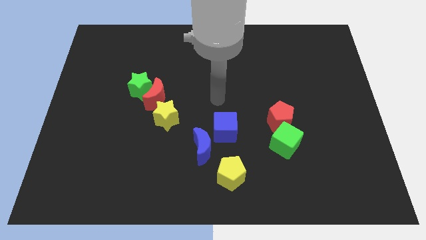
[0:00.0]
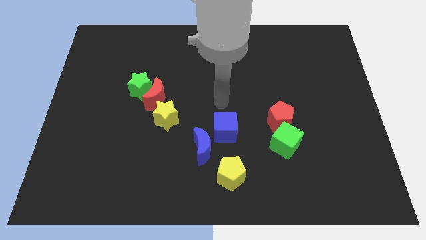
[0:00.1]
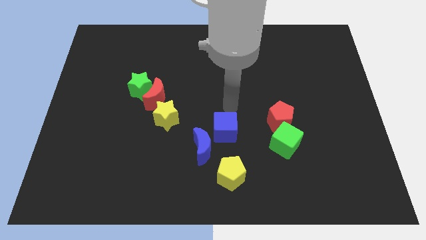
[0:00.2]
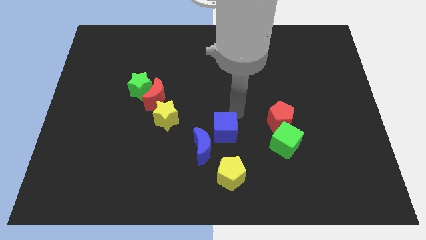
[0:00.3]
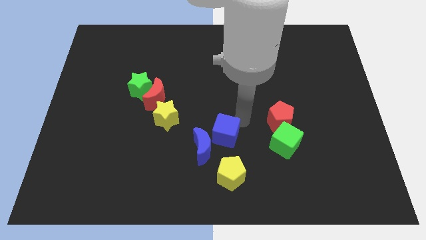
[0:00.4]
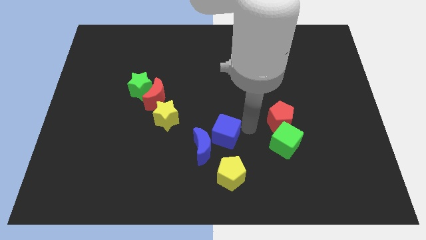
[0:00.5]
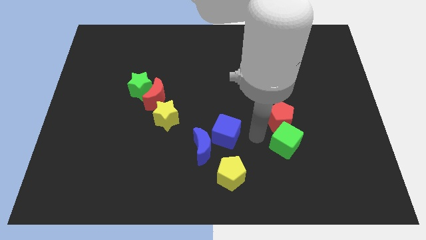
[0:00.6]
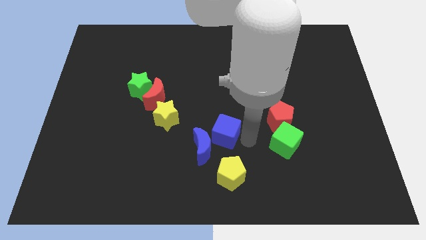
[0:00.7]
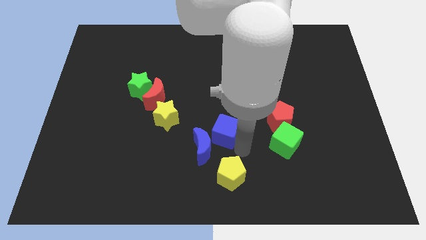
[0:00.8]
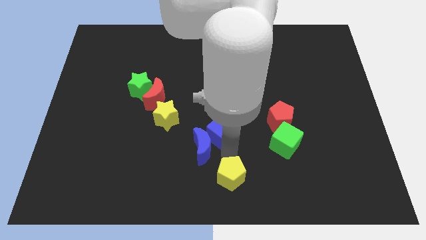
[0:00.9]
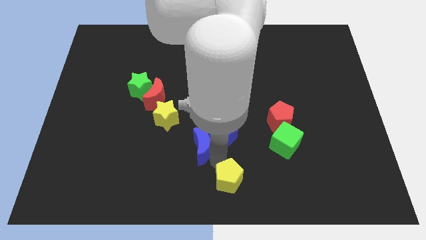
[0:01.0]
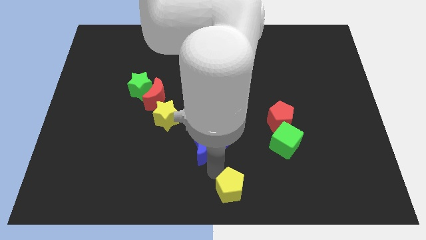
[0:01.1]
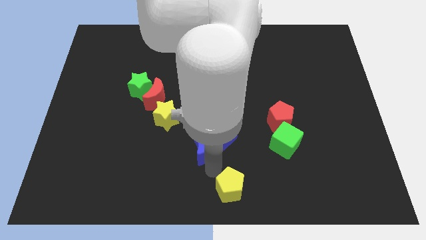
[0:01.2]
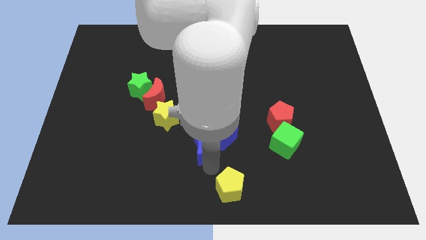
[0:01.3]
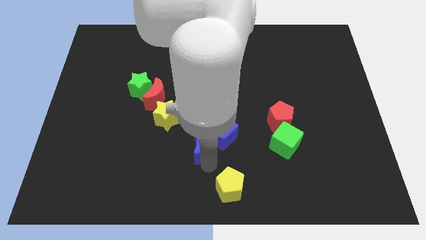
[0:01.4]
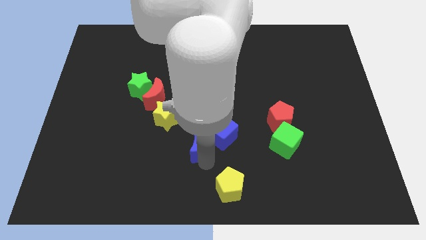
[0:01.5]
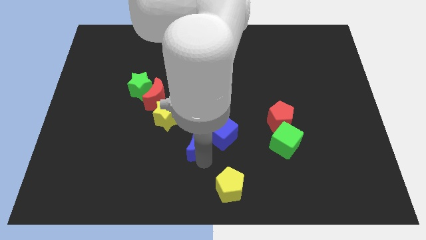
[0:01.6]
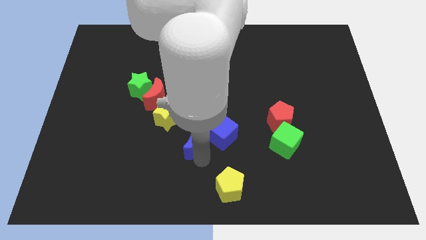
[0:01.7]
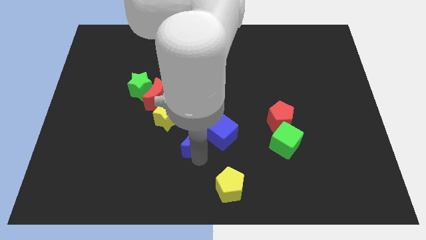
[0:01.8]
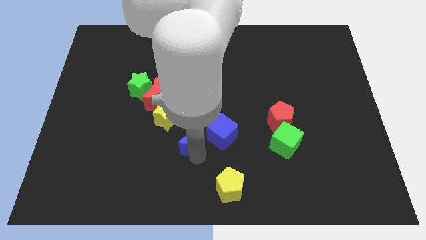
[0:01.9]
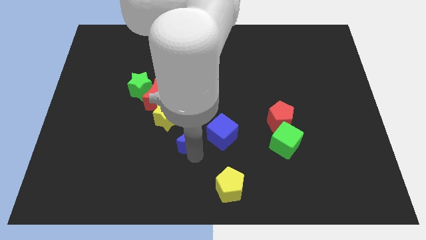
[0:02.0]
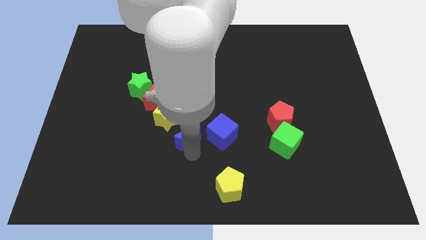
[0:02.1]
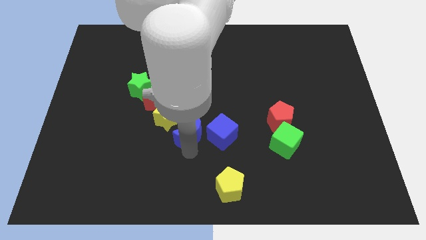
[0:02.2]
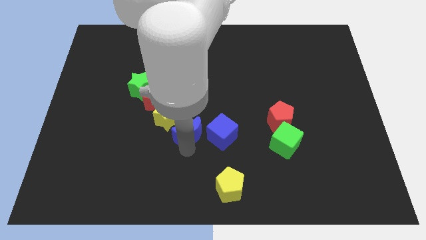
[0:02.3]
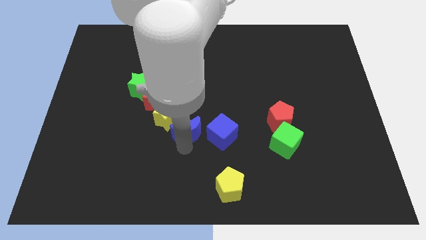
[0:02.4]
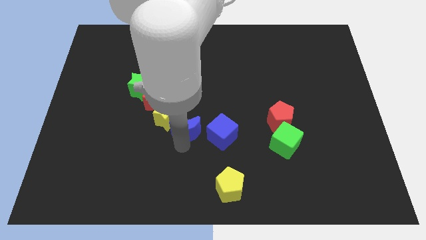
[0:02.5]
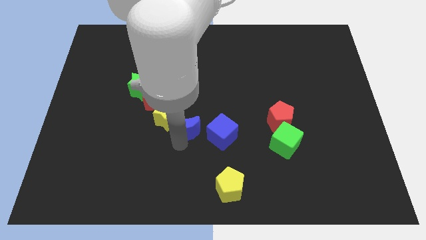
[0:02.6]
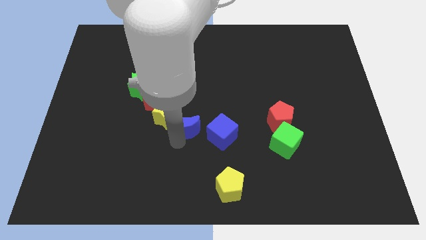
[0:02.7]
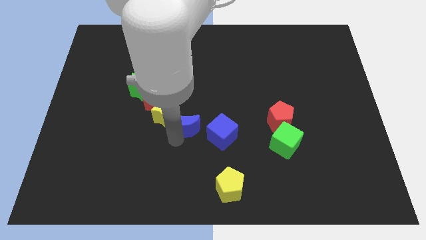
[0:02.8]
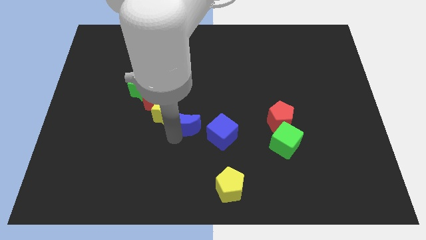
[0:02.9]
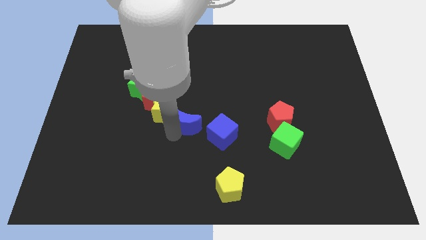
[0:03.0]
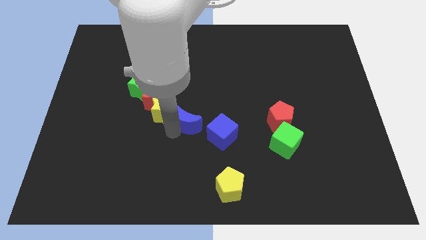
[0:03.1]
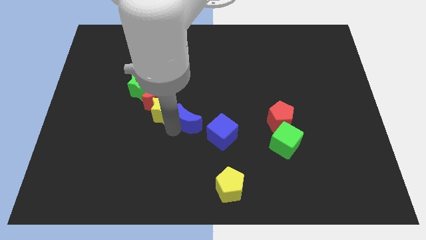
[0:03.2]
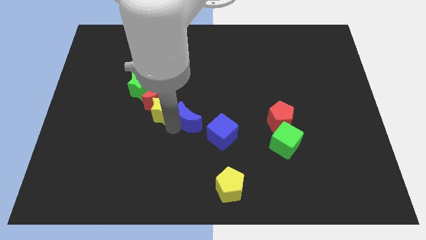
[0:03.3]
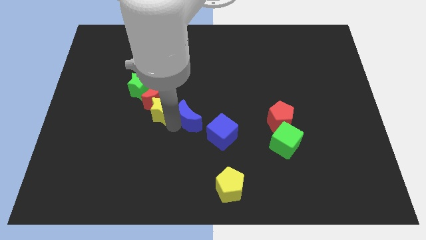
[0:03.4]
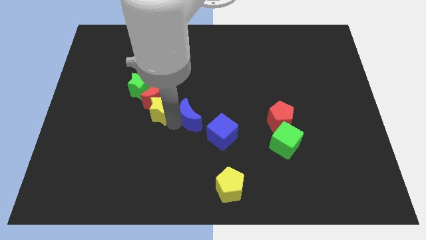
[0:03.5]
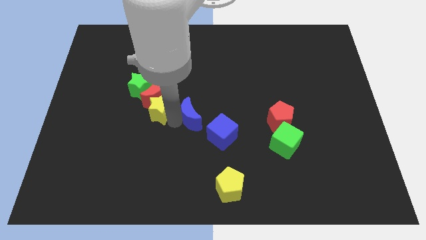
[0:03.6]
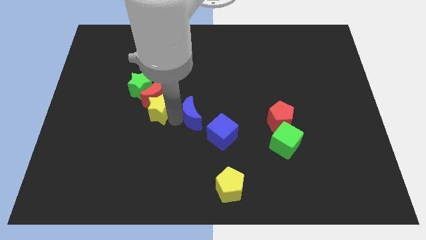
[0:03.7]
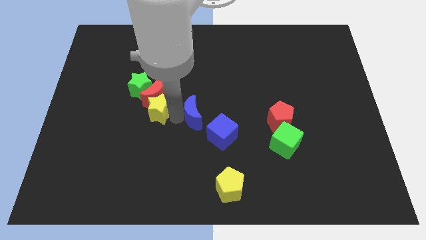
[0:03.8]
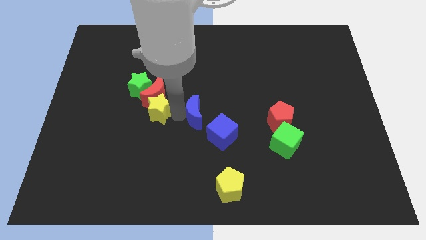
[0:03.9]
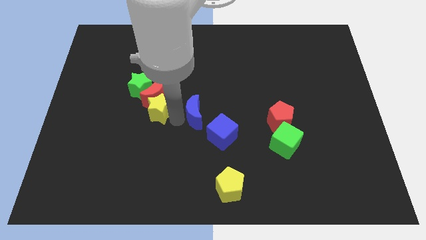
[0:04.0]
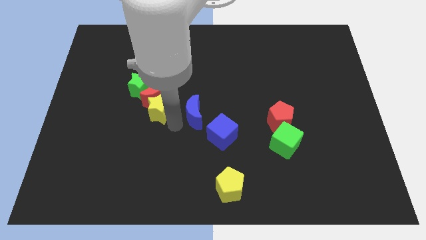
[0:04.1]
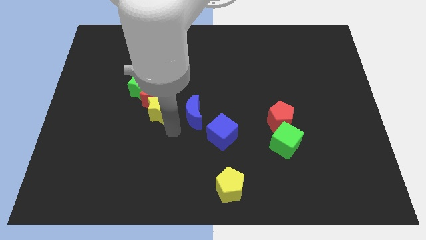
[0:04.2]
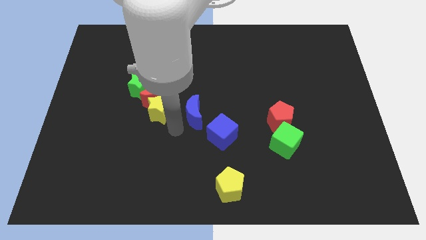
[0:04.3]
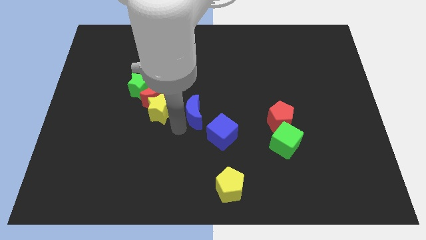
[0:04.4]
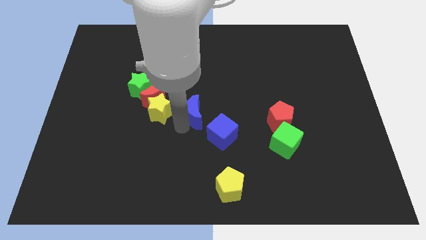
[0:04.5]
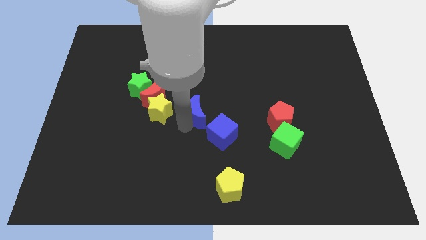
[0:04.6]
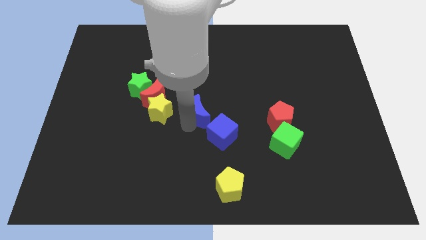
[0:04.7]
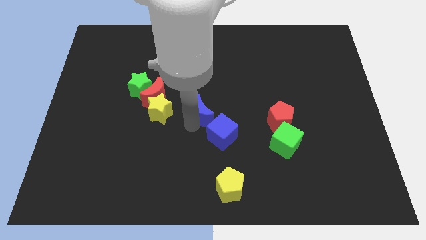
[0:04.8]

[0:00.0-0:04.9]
slide the blue moon above the blue cube

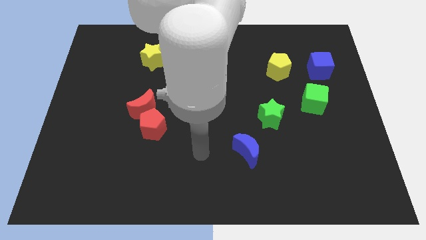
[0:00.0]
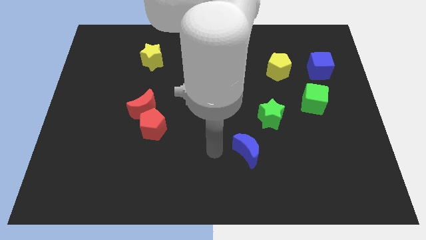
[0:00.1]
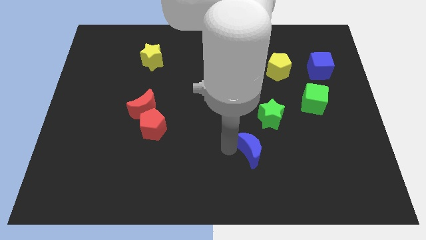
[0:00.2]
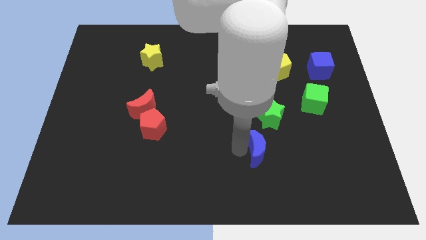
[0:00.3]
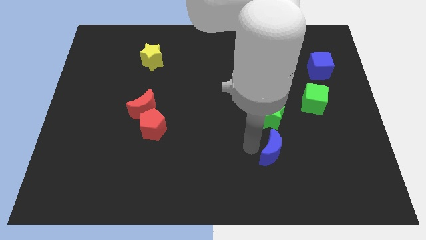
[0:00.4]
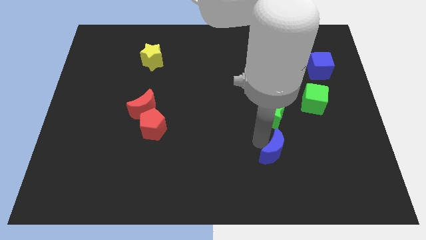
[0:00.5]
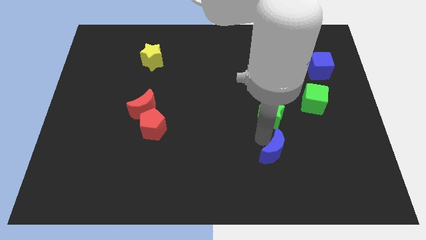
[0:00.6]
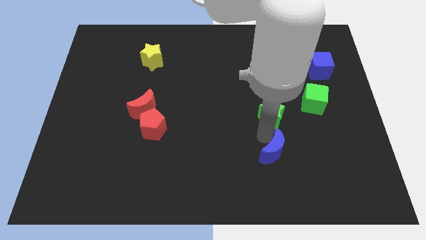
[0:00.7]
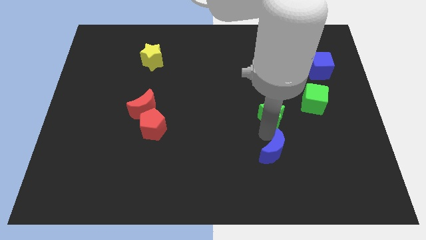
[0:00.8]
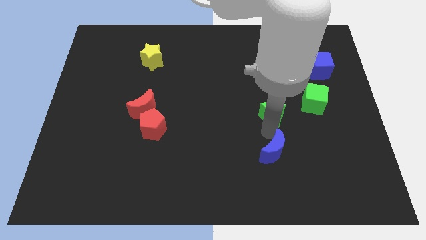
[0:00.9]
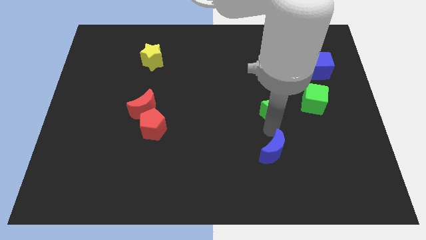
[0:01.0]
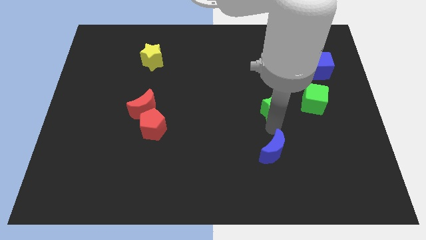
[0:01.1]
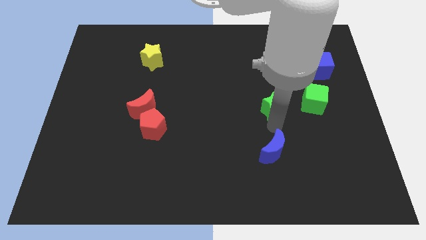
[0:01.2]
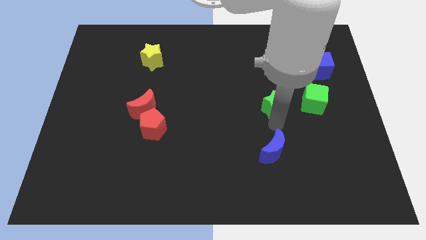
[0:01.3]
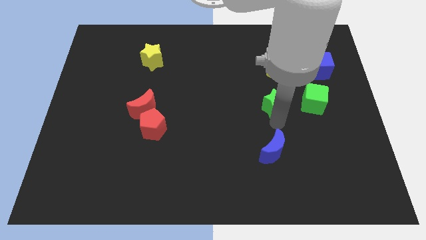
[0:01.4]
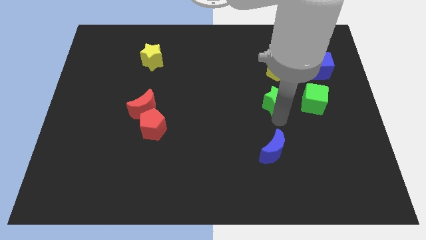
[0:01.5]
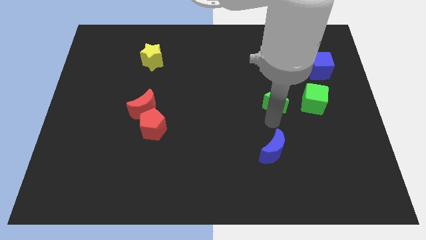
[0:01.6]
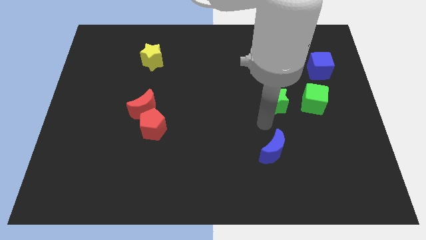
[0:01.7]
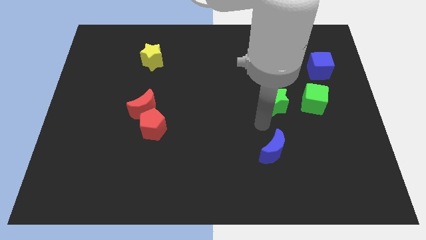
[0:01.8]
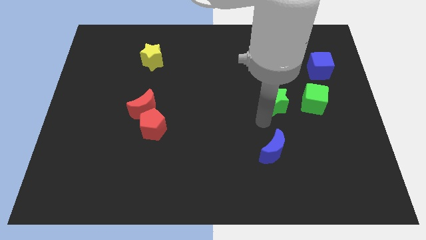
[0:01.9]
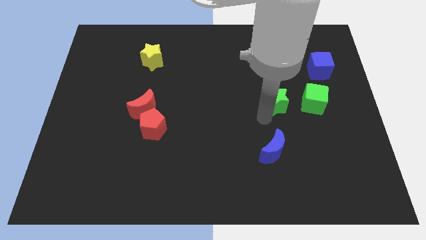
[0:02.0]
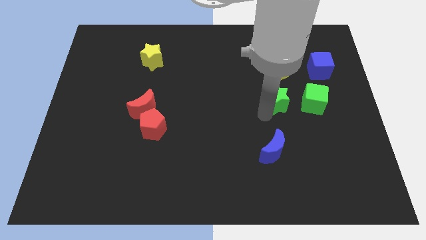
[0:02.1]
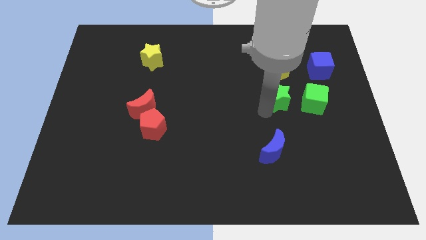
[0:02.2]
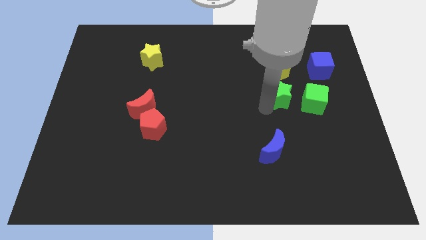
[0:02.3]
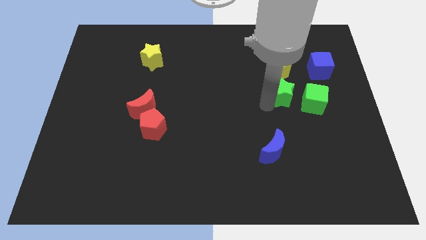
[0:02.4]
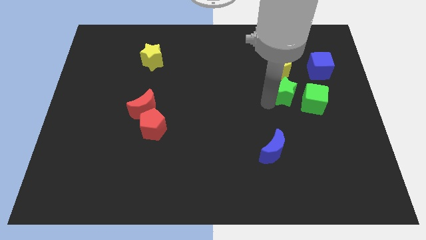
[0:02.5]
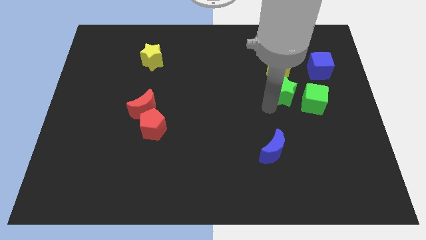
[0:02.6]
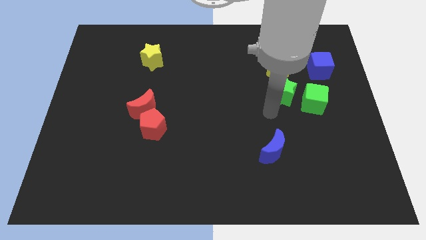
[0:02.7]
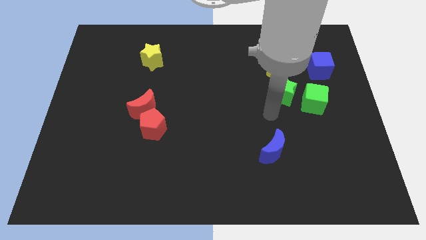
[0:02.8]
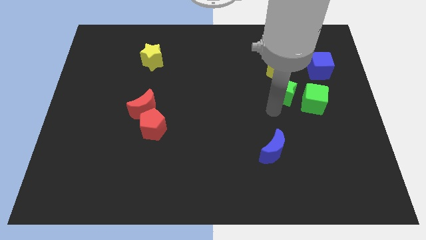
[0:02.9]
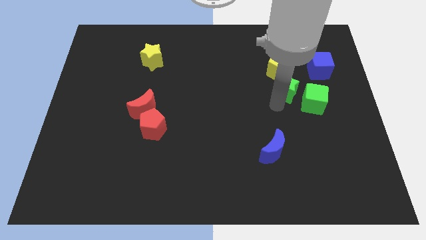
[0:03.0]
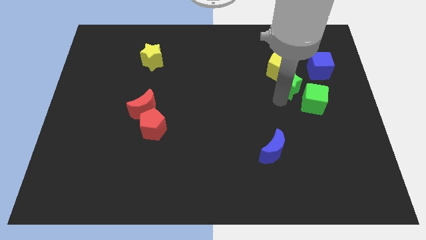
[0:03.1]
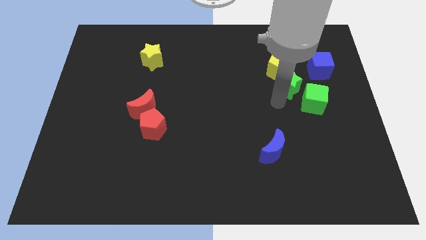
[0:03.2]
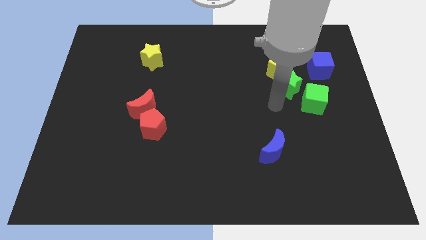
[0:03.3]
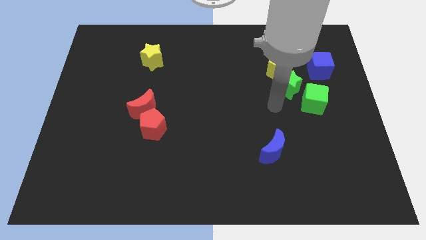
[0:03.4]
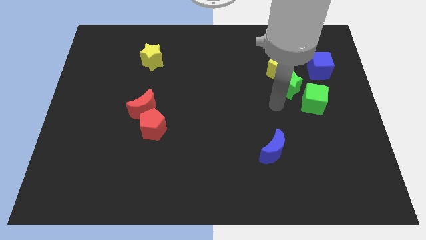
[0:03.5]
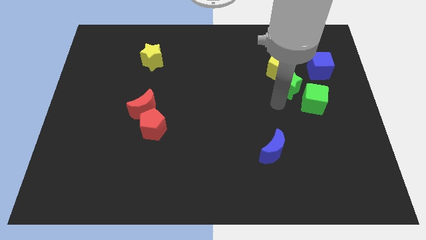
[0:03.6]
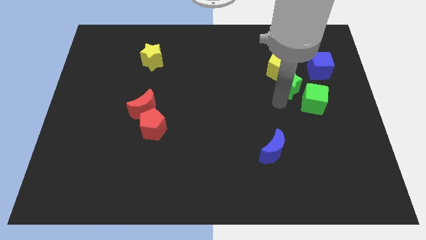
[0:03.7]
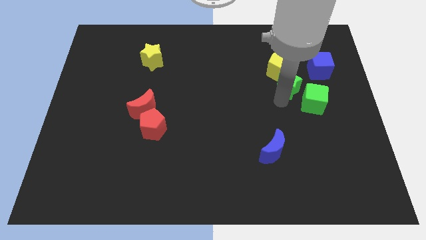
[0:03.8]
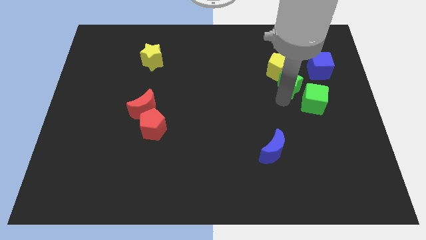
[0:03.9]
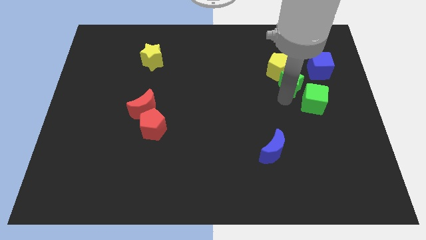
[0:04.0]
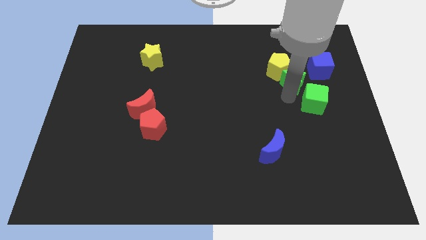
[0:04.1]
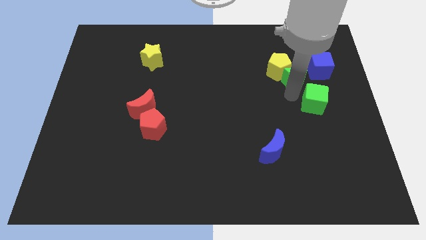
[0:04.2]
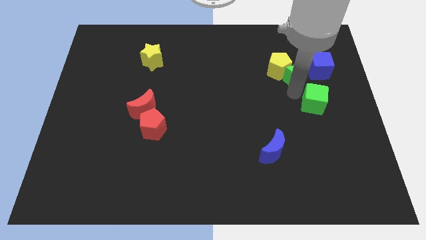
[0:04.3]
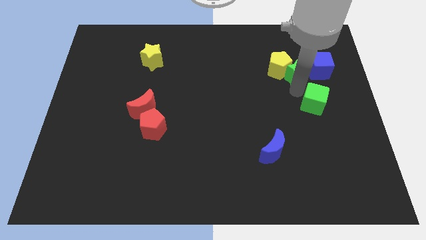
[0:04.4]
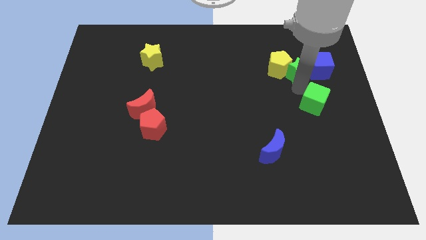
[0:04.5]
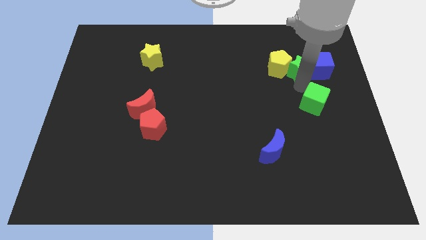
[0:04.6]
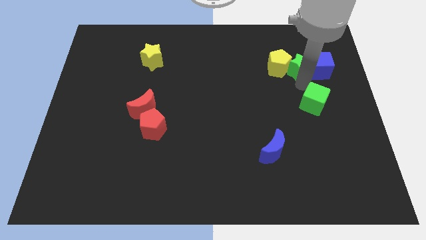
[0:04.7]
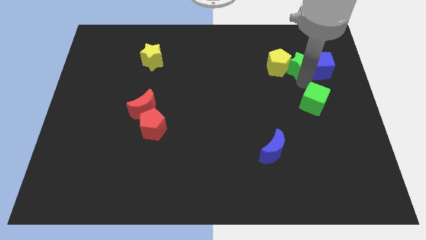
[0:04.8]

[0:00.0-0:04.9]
put the green star diagonally up and to the right of the yellow pentagon
